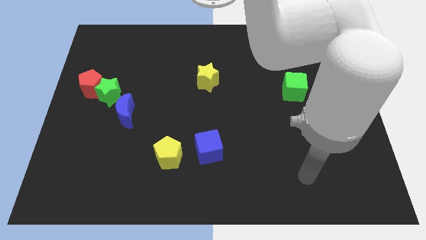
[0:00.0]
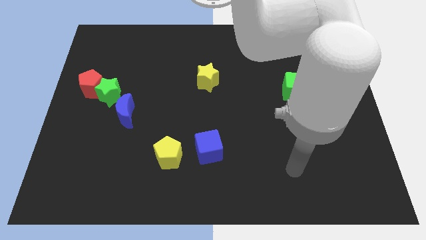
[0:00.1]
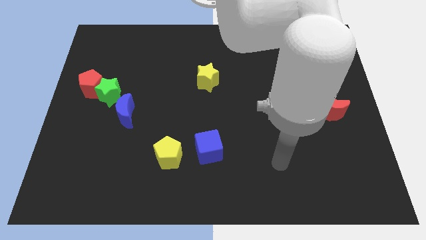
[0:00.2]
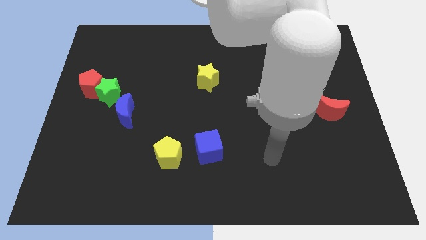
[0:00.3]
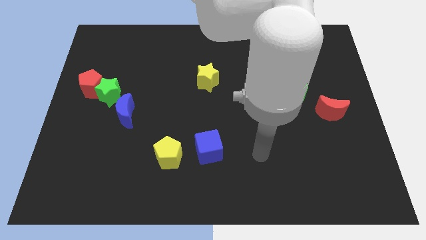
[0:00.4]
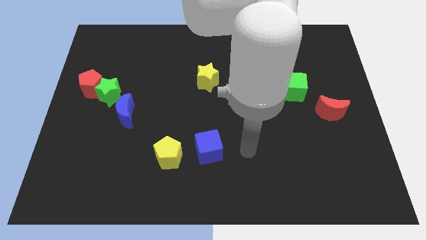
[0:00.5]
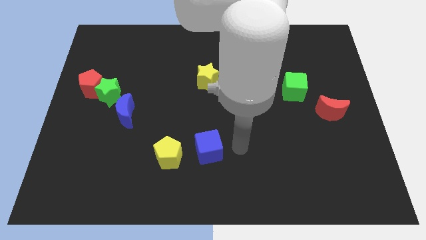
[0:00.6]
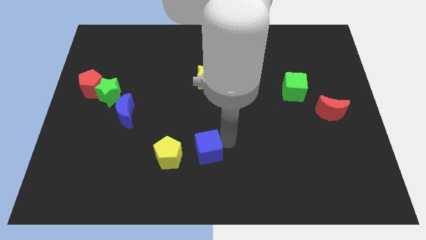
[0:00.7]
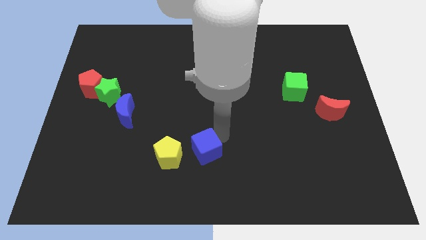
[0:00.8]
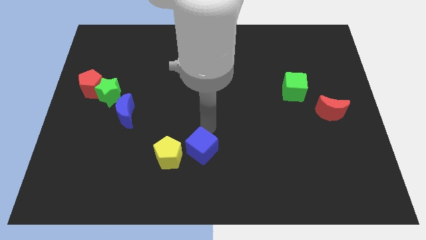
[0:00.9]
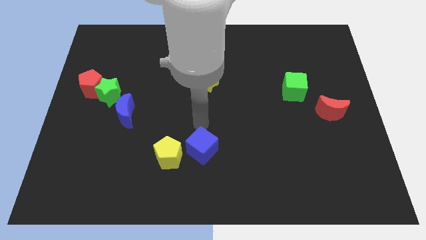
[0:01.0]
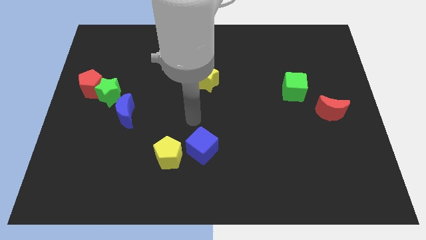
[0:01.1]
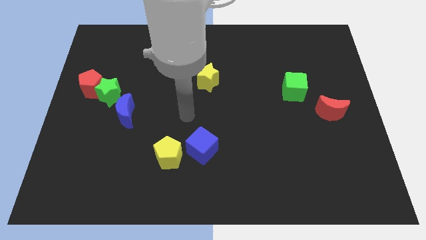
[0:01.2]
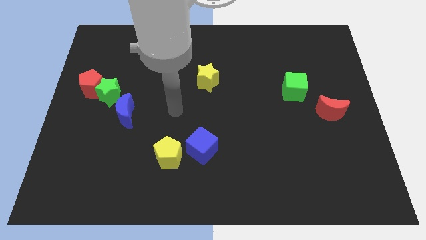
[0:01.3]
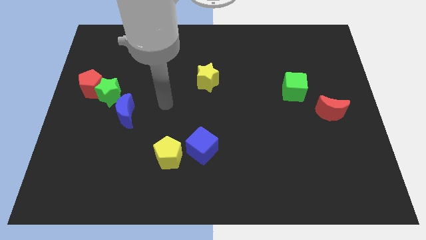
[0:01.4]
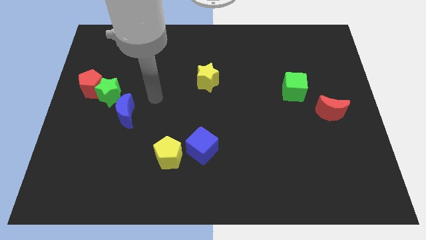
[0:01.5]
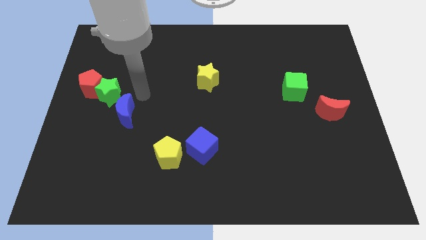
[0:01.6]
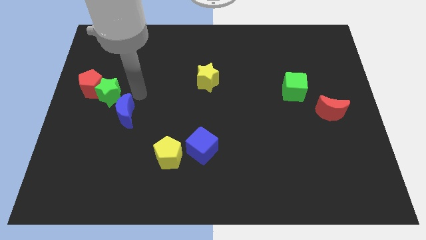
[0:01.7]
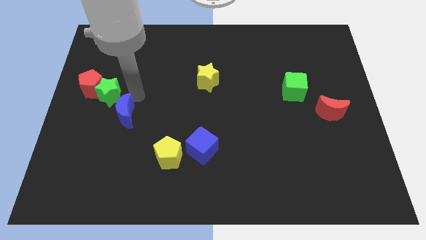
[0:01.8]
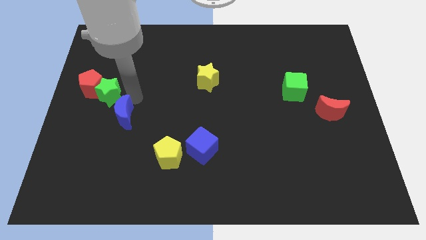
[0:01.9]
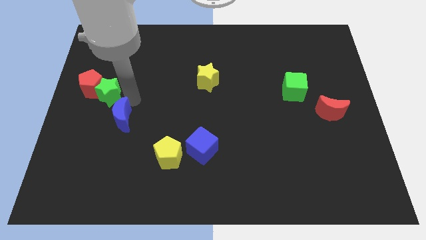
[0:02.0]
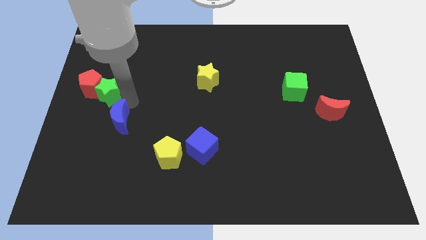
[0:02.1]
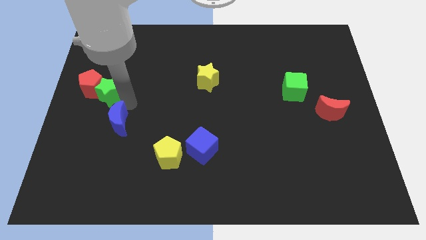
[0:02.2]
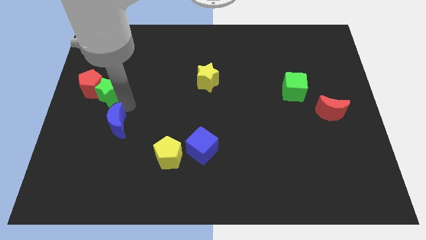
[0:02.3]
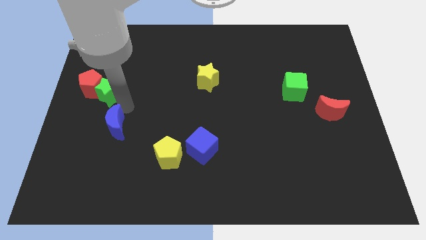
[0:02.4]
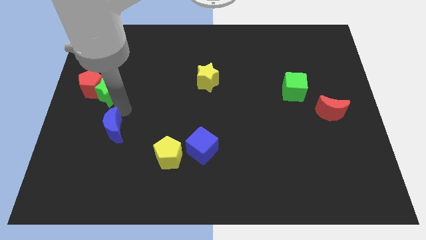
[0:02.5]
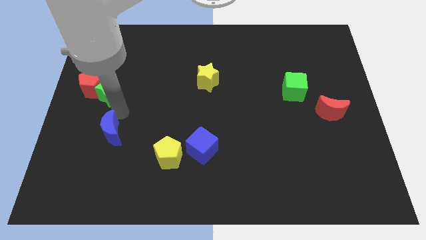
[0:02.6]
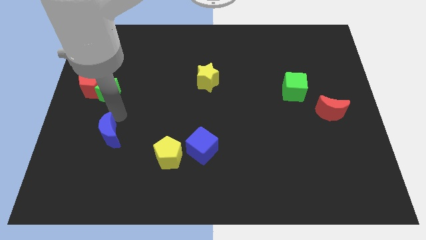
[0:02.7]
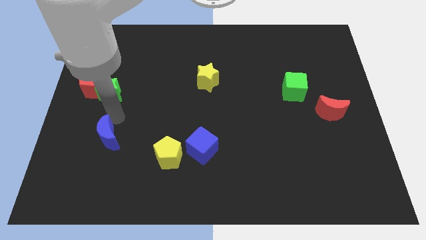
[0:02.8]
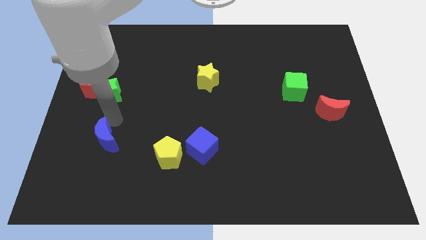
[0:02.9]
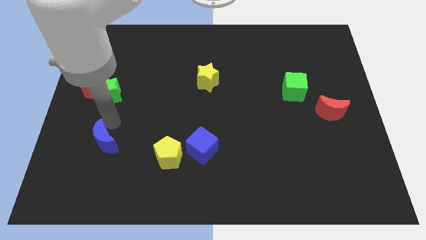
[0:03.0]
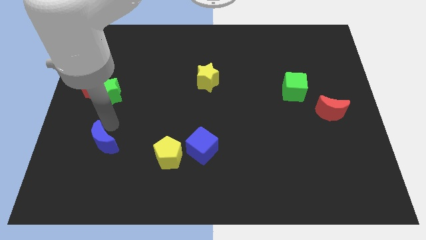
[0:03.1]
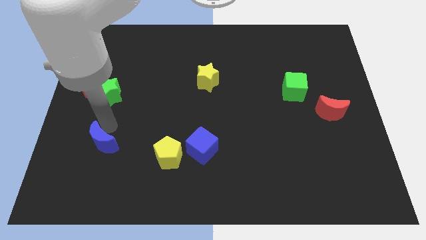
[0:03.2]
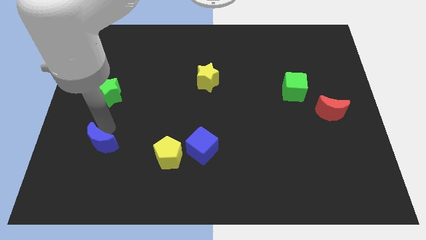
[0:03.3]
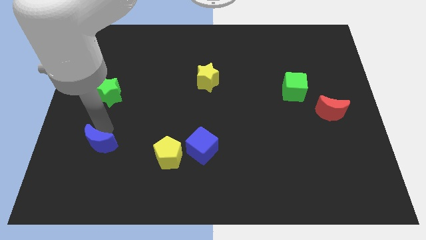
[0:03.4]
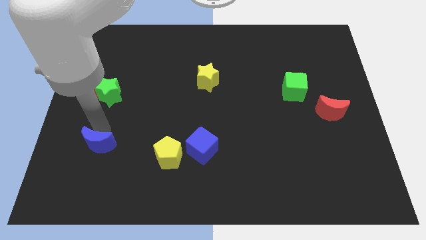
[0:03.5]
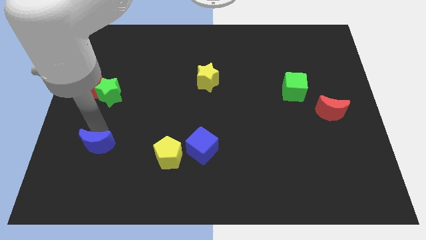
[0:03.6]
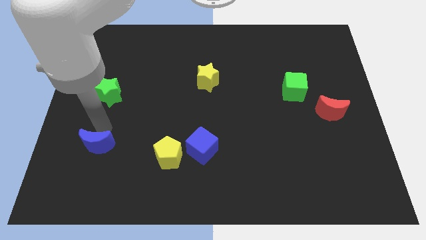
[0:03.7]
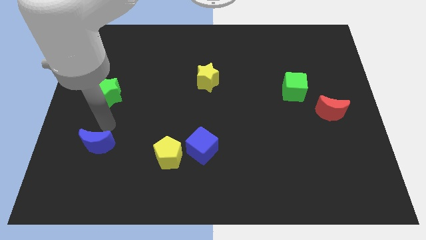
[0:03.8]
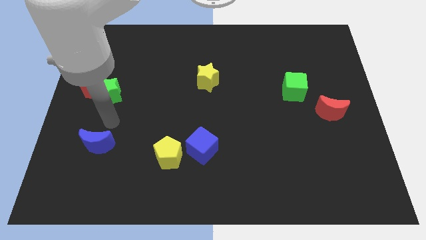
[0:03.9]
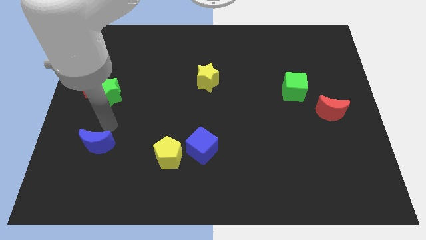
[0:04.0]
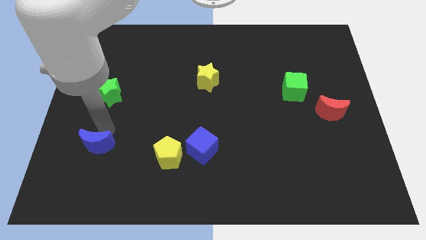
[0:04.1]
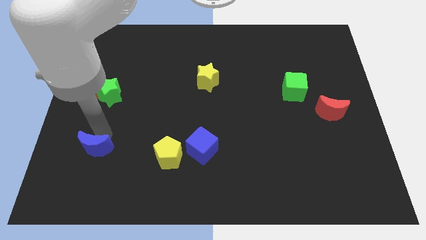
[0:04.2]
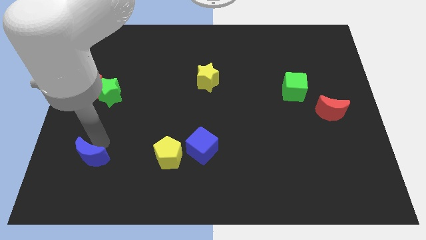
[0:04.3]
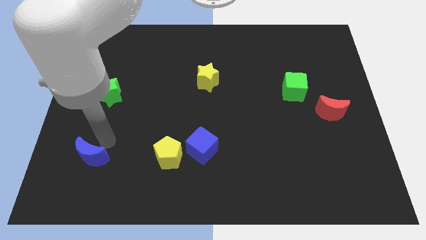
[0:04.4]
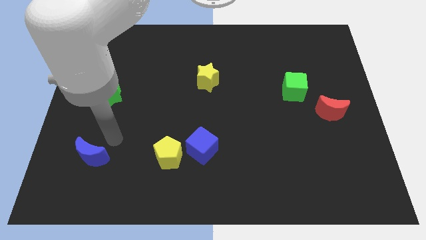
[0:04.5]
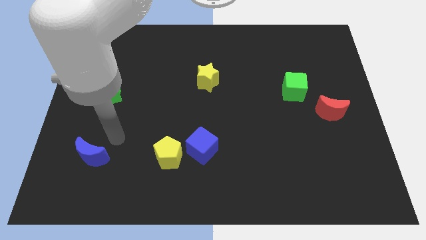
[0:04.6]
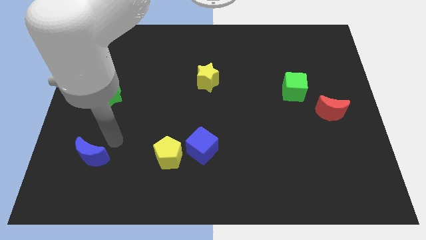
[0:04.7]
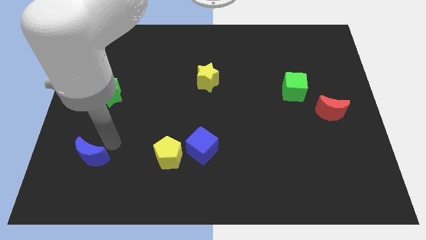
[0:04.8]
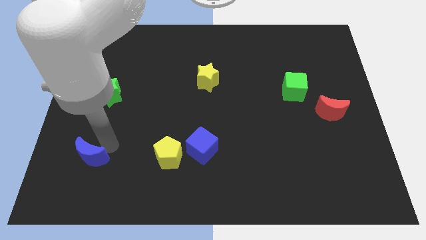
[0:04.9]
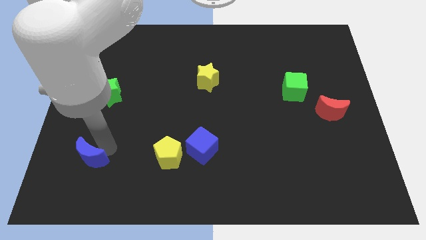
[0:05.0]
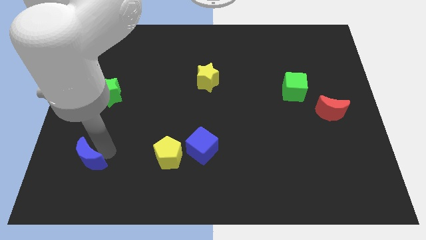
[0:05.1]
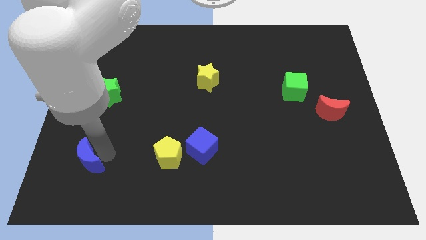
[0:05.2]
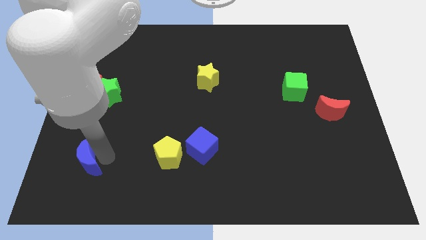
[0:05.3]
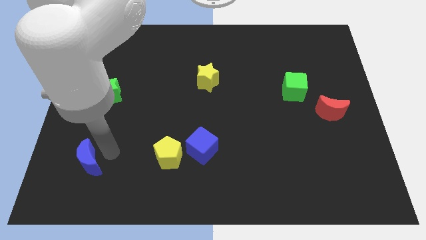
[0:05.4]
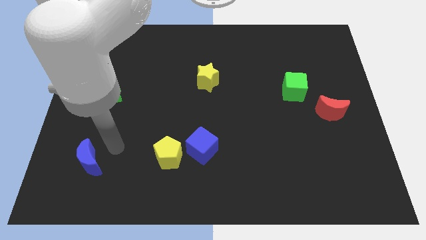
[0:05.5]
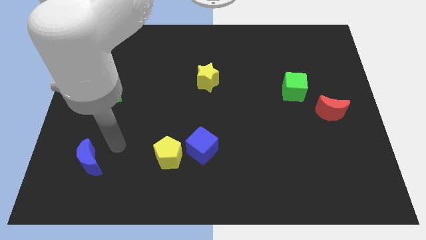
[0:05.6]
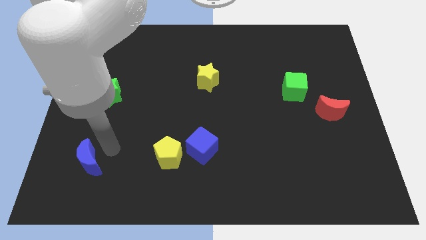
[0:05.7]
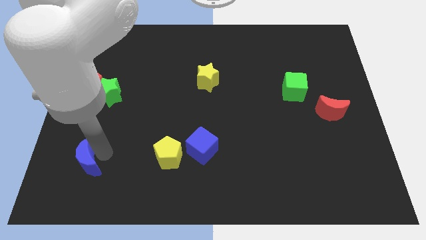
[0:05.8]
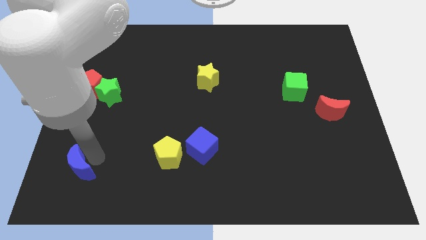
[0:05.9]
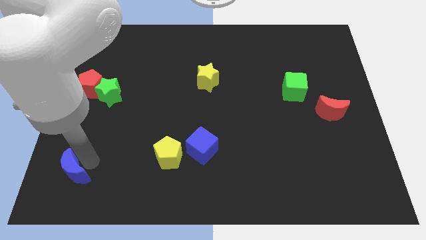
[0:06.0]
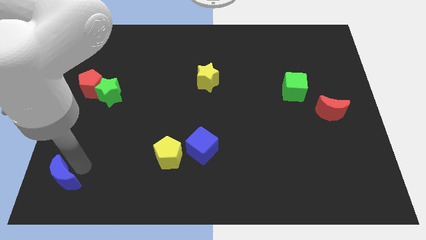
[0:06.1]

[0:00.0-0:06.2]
push the blue moon to the lower left corner

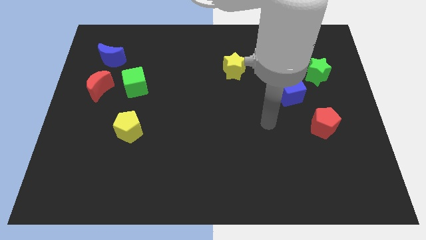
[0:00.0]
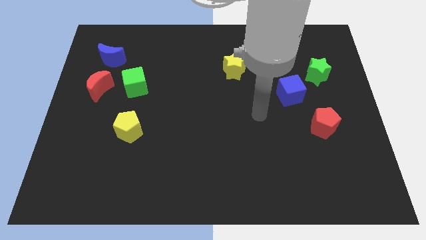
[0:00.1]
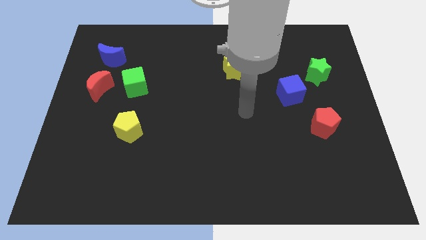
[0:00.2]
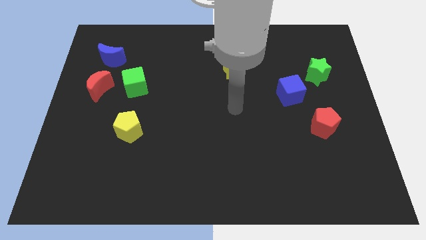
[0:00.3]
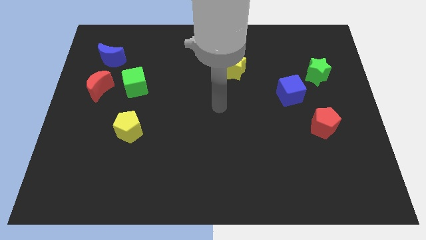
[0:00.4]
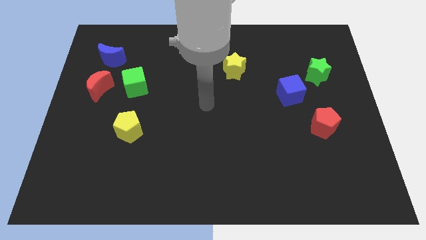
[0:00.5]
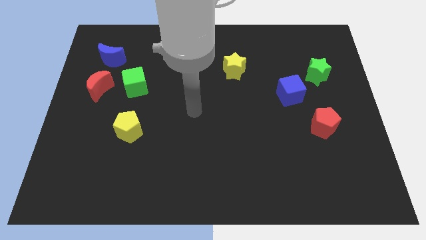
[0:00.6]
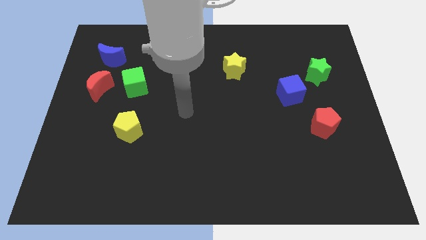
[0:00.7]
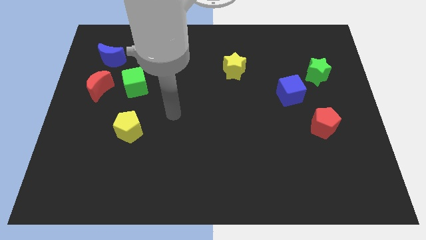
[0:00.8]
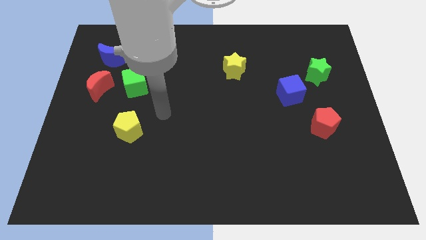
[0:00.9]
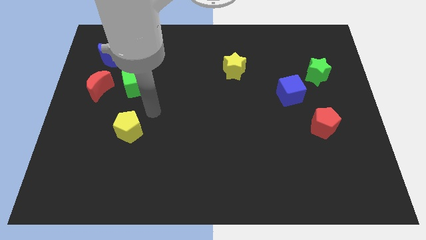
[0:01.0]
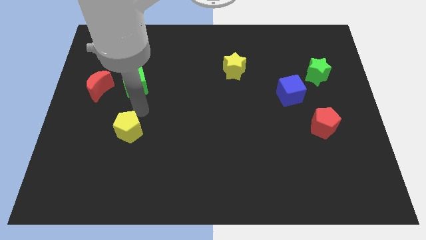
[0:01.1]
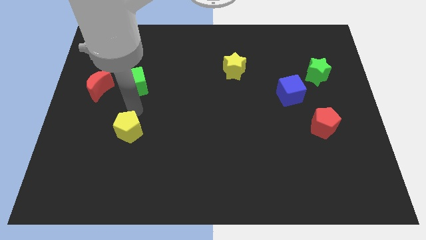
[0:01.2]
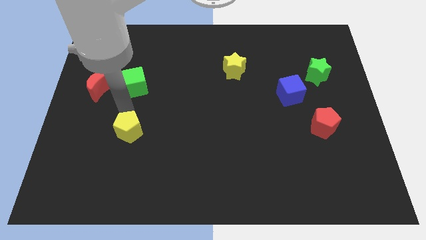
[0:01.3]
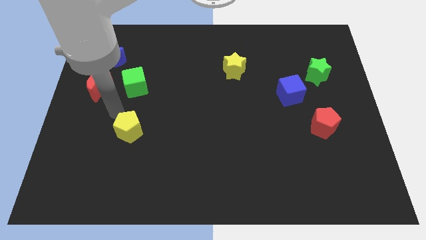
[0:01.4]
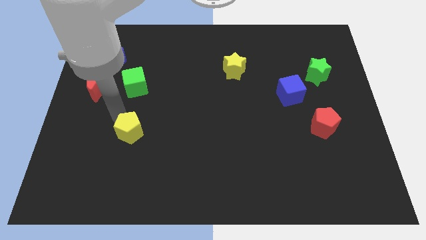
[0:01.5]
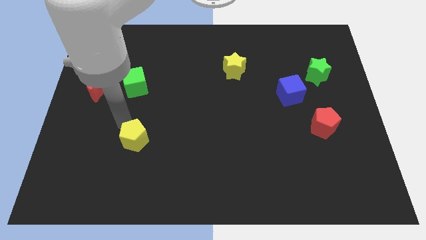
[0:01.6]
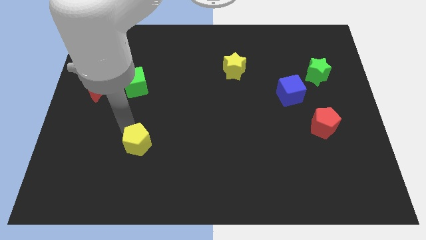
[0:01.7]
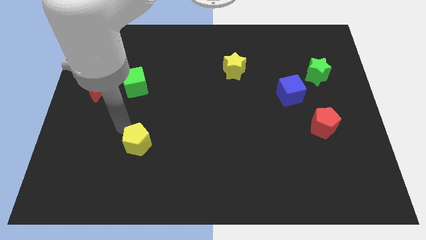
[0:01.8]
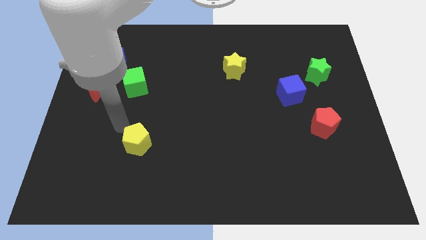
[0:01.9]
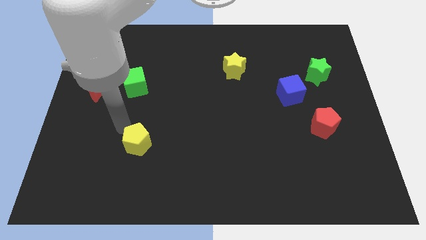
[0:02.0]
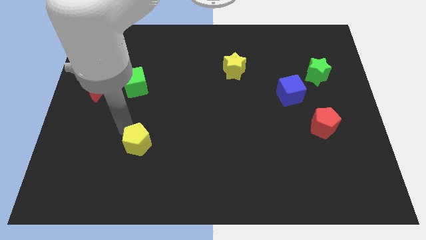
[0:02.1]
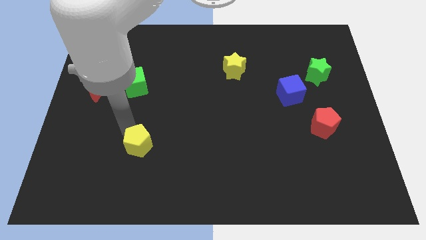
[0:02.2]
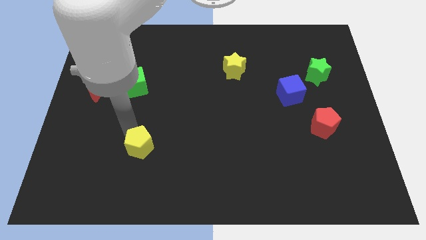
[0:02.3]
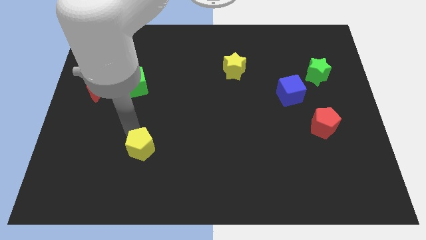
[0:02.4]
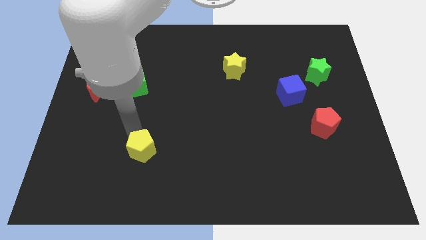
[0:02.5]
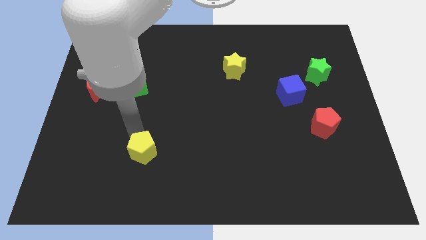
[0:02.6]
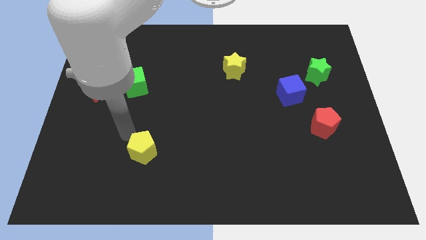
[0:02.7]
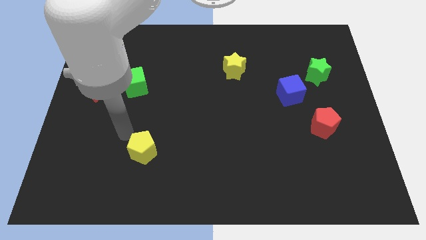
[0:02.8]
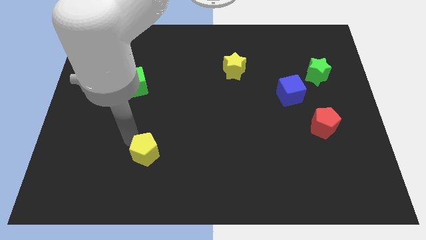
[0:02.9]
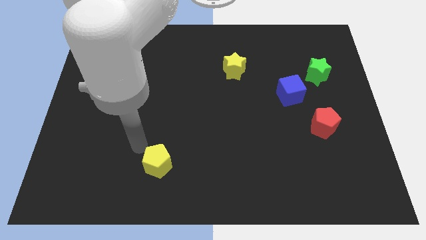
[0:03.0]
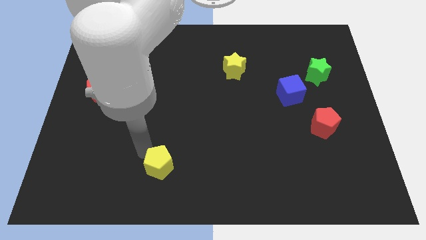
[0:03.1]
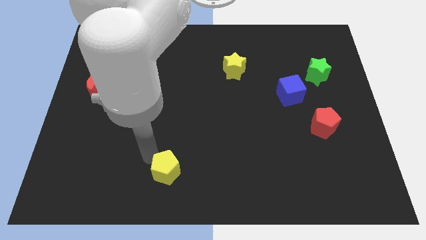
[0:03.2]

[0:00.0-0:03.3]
move the yellow pentagon to the bottom side
